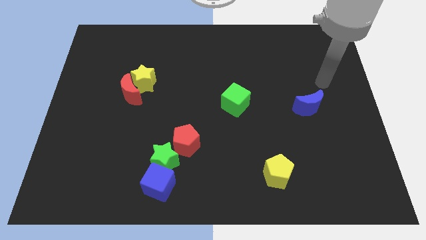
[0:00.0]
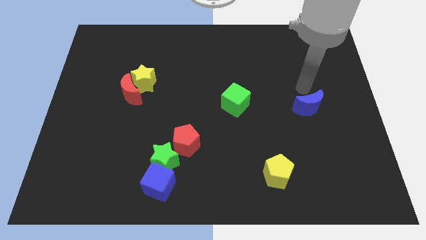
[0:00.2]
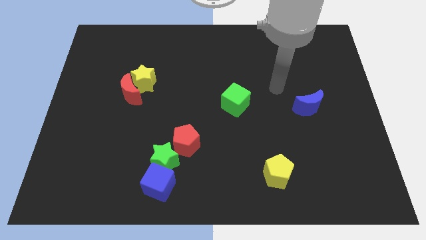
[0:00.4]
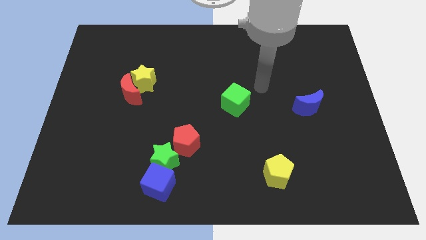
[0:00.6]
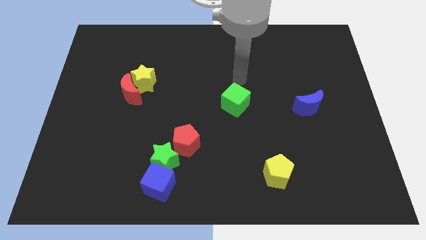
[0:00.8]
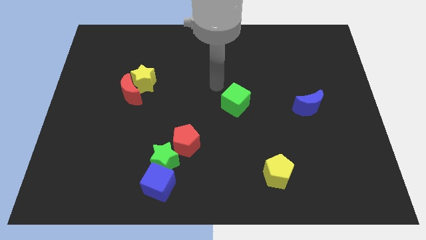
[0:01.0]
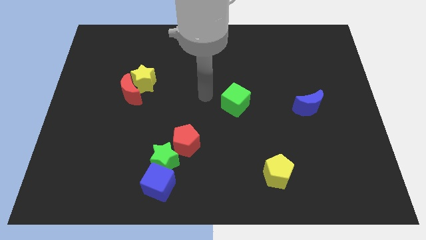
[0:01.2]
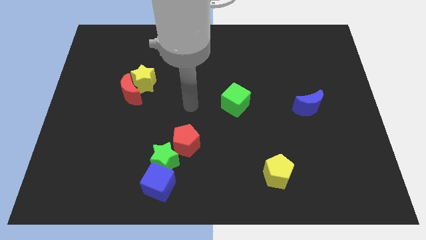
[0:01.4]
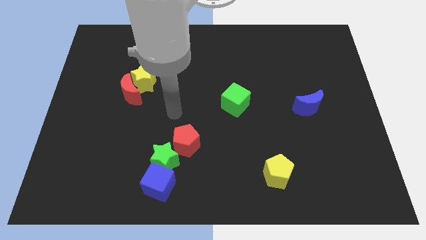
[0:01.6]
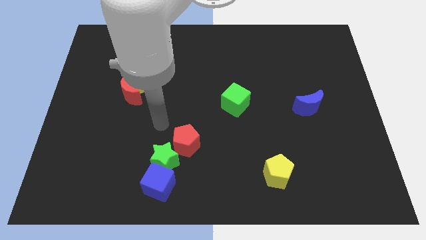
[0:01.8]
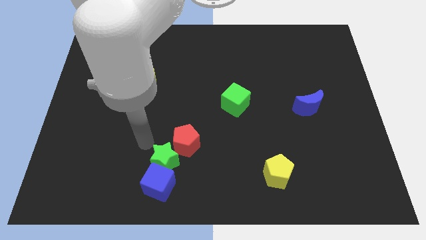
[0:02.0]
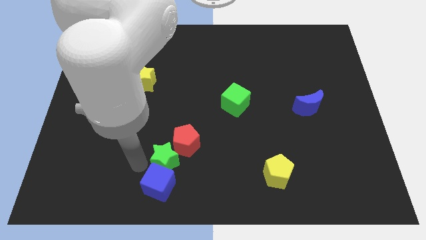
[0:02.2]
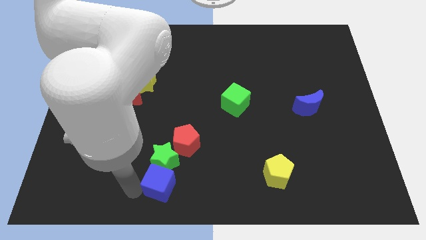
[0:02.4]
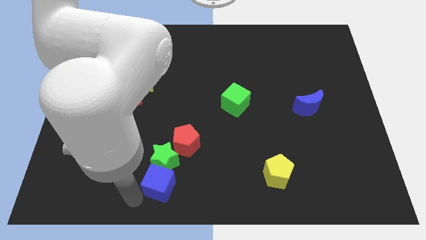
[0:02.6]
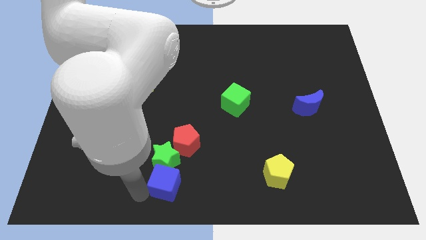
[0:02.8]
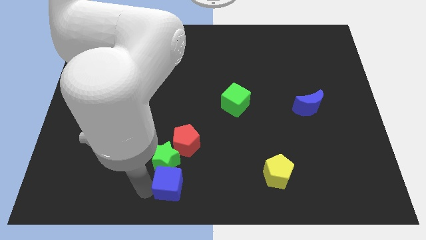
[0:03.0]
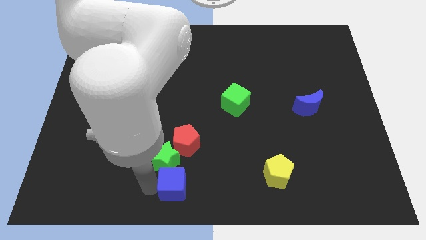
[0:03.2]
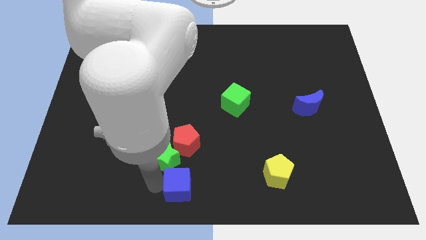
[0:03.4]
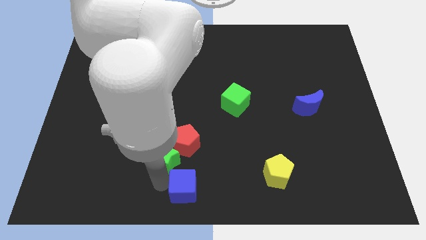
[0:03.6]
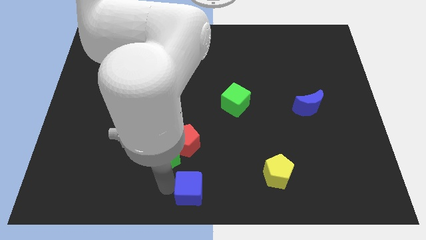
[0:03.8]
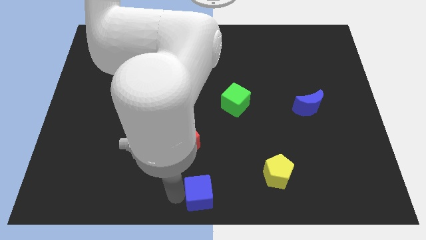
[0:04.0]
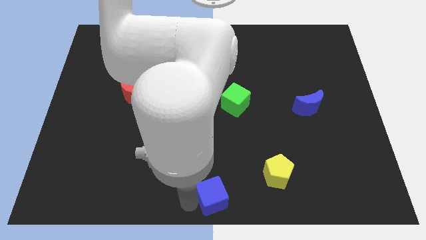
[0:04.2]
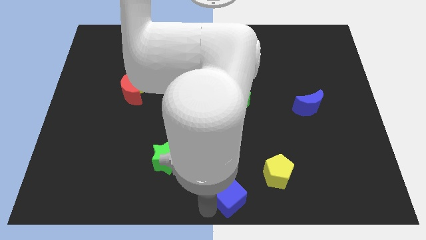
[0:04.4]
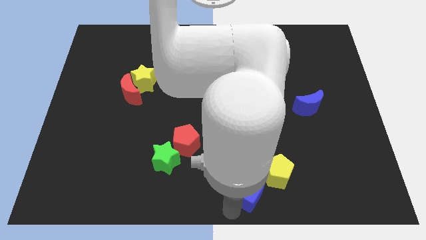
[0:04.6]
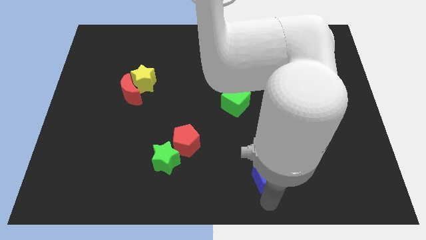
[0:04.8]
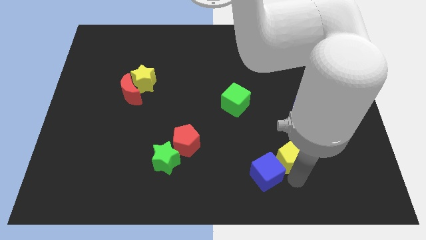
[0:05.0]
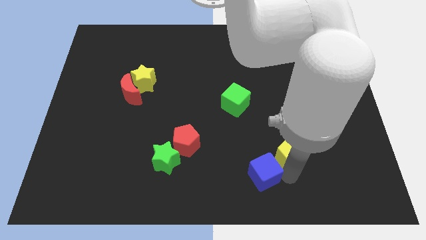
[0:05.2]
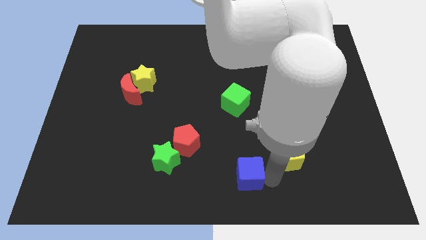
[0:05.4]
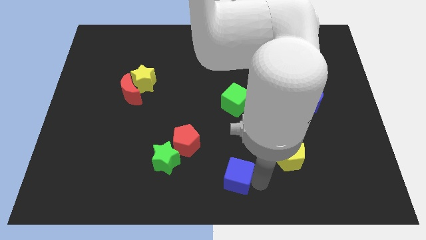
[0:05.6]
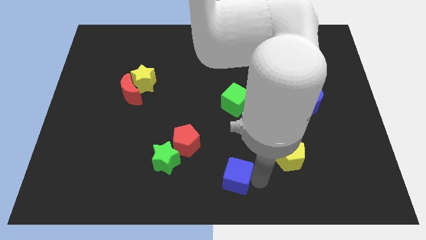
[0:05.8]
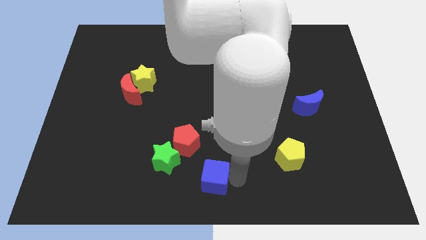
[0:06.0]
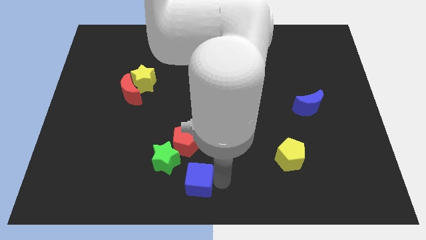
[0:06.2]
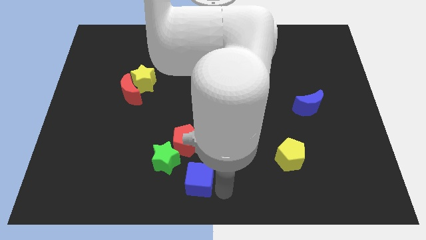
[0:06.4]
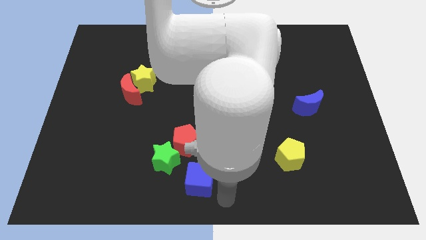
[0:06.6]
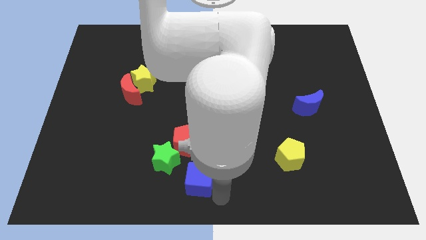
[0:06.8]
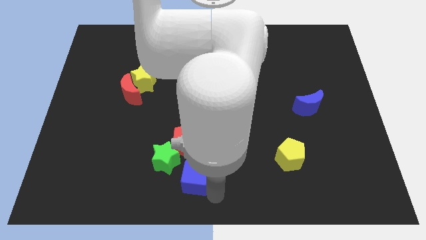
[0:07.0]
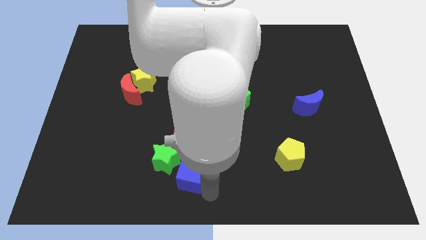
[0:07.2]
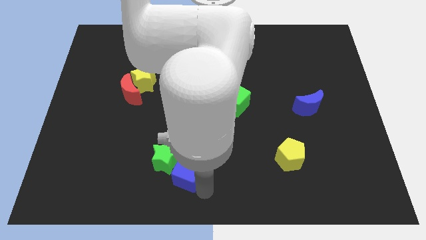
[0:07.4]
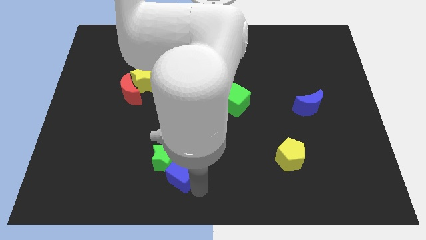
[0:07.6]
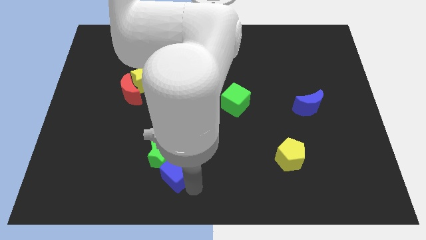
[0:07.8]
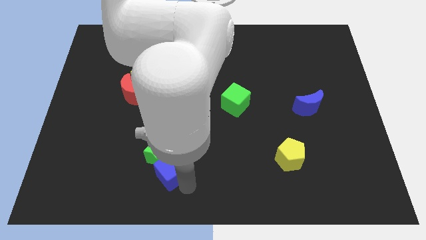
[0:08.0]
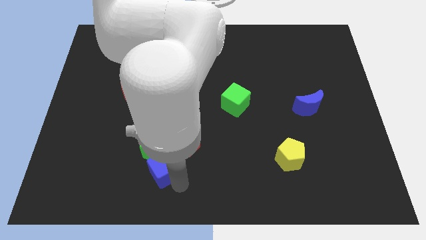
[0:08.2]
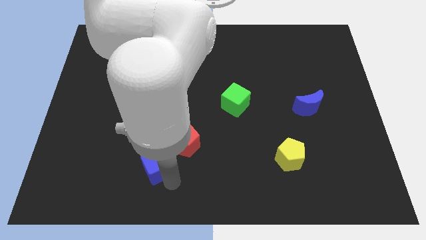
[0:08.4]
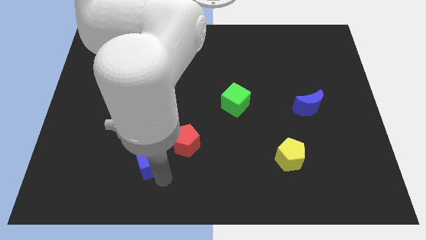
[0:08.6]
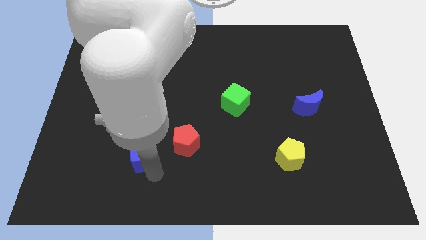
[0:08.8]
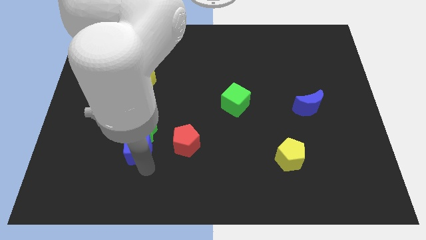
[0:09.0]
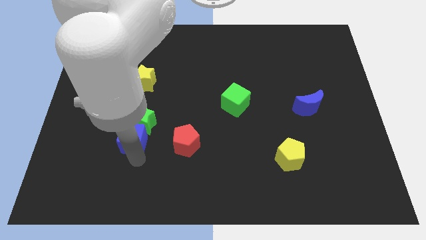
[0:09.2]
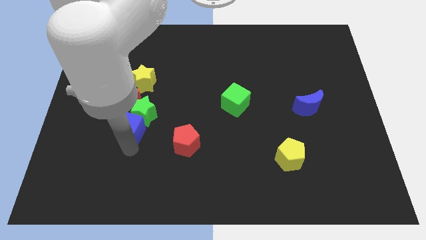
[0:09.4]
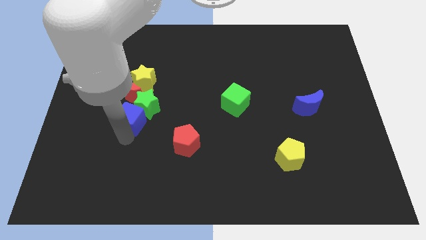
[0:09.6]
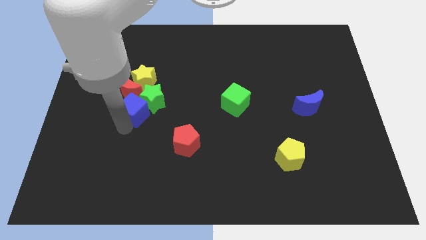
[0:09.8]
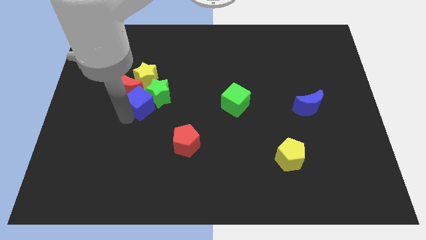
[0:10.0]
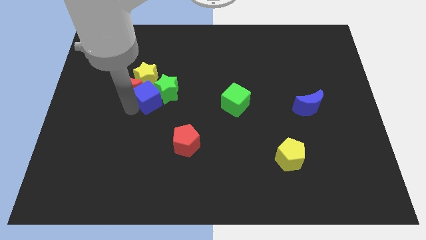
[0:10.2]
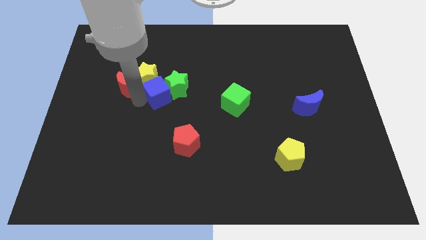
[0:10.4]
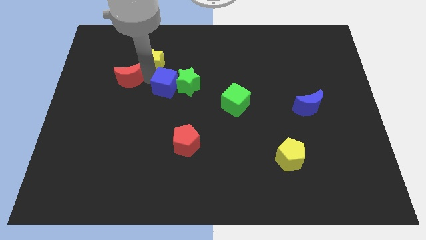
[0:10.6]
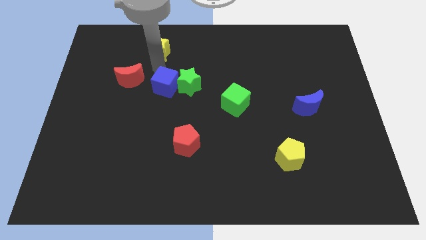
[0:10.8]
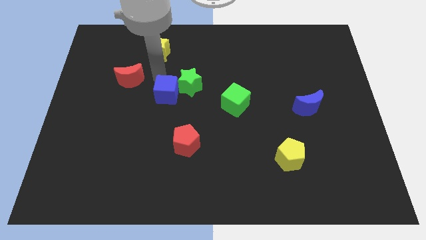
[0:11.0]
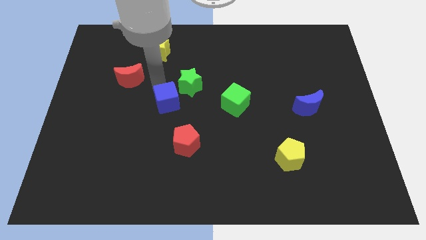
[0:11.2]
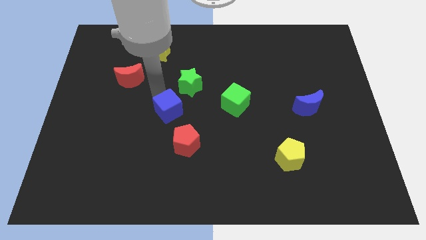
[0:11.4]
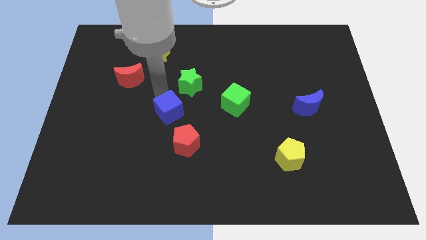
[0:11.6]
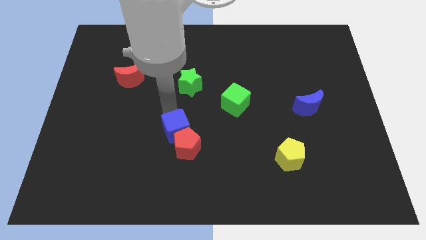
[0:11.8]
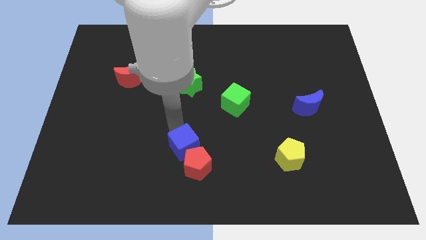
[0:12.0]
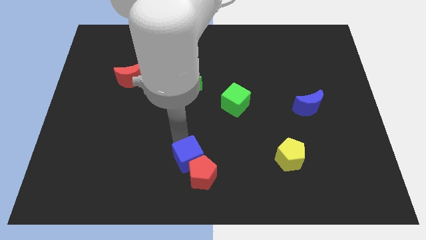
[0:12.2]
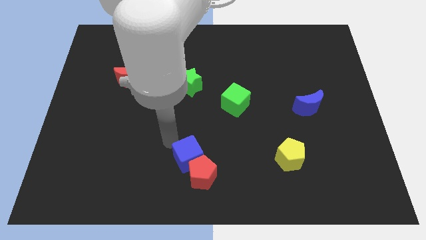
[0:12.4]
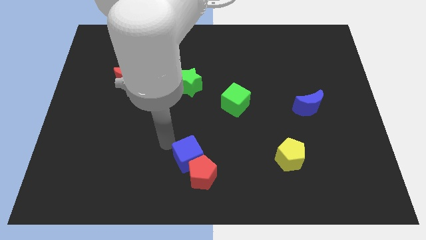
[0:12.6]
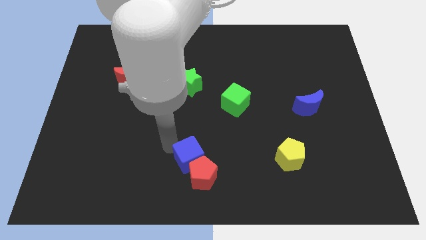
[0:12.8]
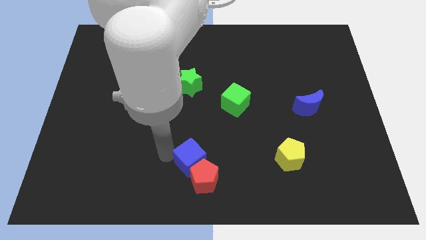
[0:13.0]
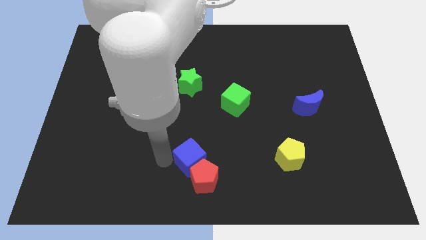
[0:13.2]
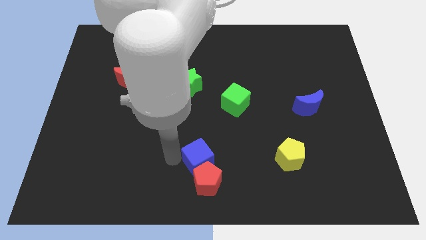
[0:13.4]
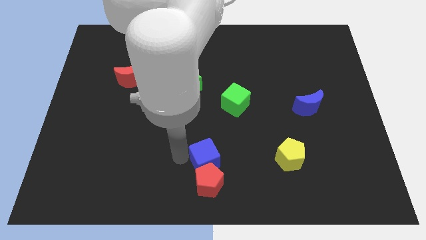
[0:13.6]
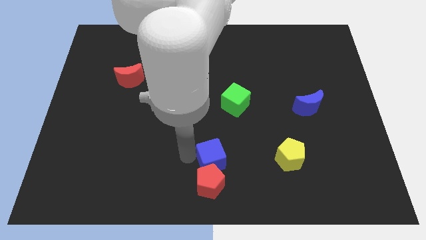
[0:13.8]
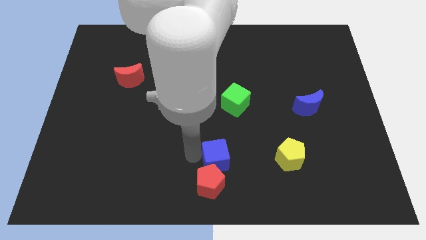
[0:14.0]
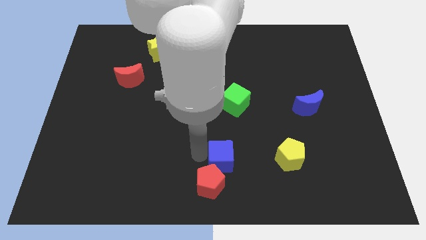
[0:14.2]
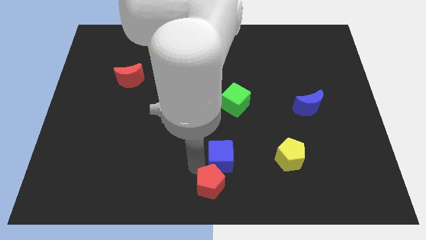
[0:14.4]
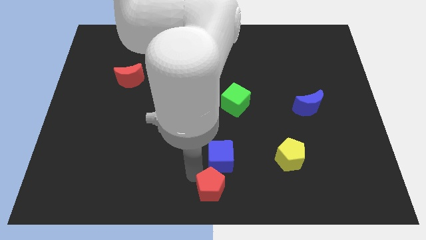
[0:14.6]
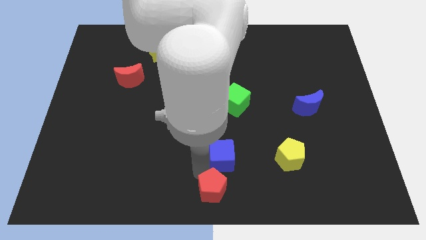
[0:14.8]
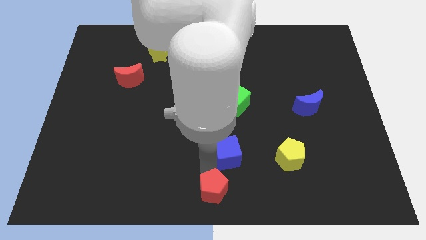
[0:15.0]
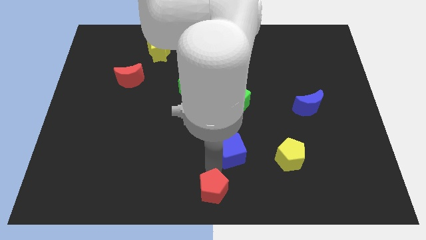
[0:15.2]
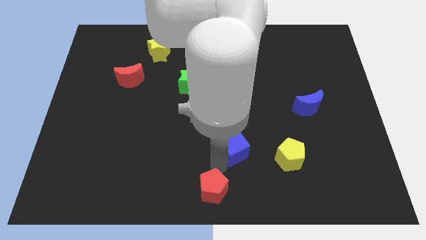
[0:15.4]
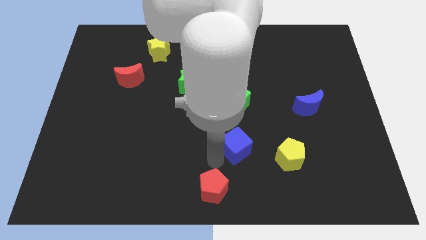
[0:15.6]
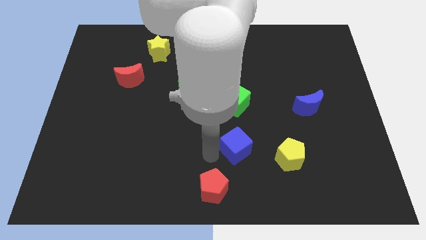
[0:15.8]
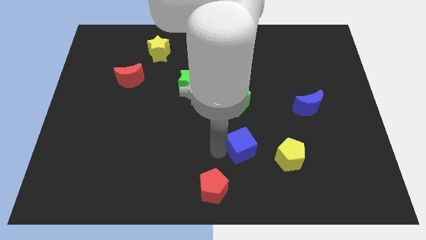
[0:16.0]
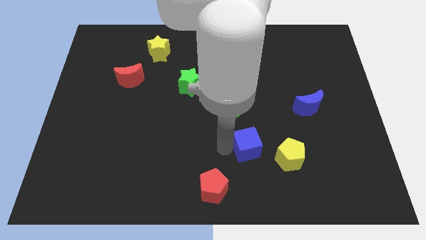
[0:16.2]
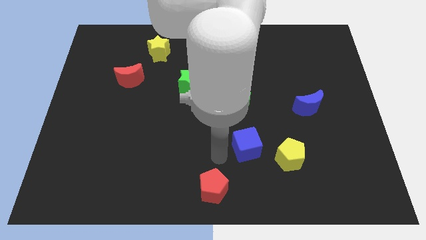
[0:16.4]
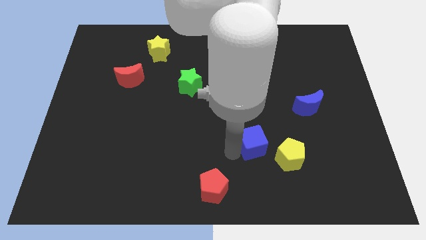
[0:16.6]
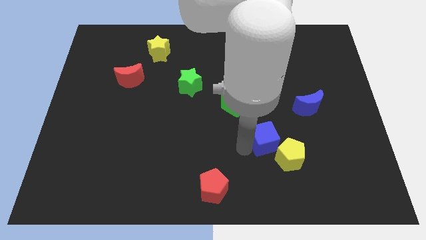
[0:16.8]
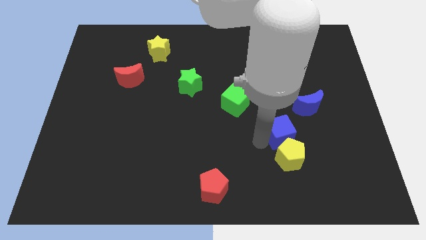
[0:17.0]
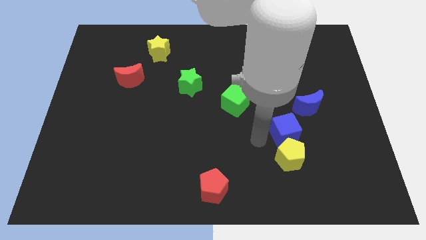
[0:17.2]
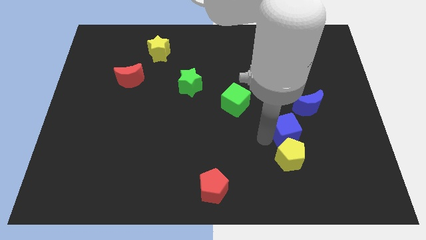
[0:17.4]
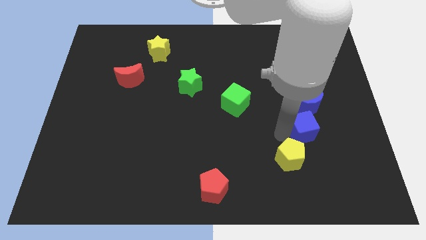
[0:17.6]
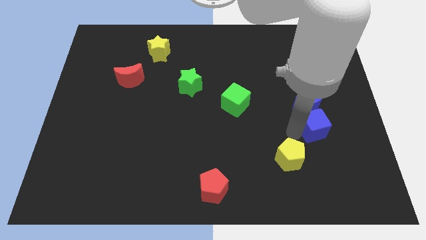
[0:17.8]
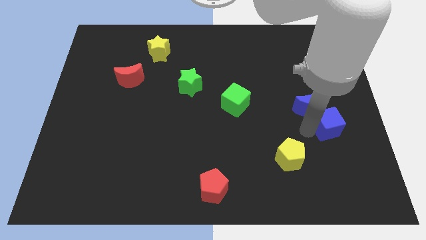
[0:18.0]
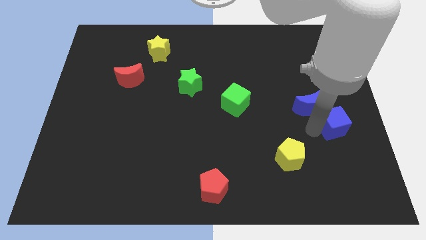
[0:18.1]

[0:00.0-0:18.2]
put the blue cube to the center right
